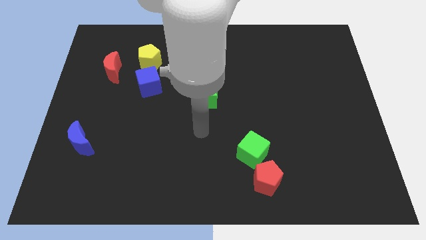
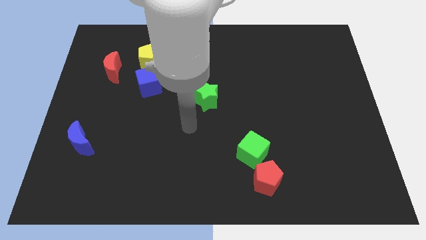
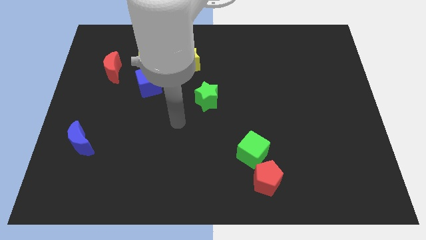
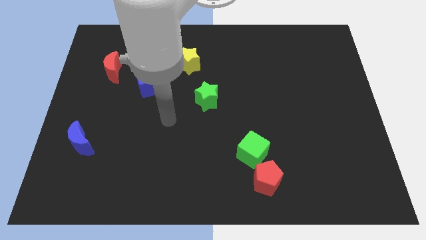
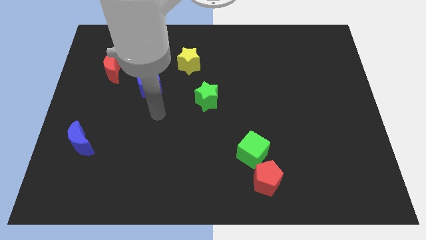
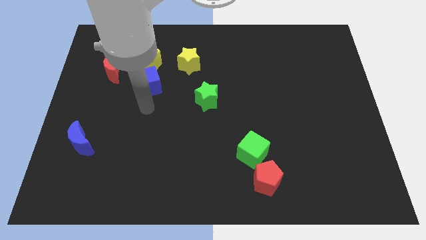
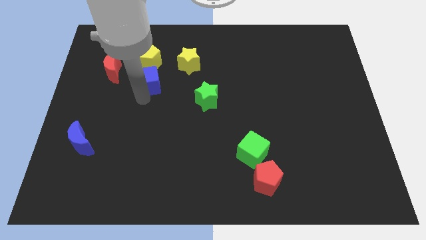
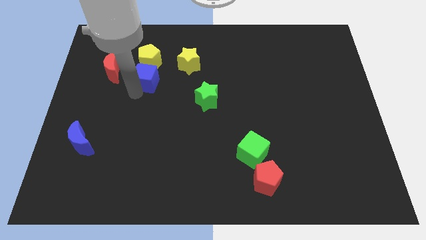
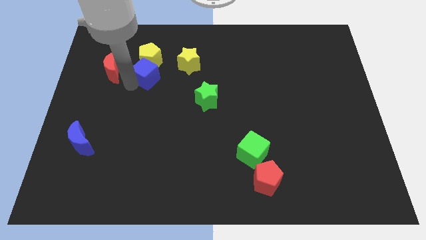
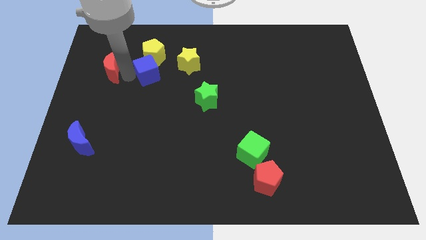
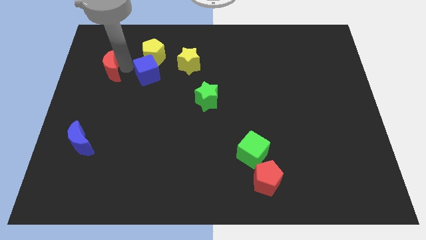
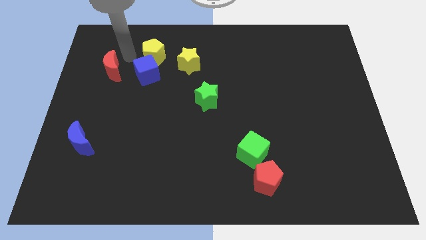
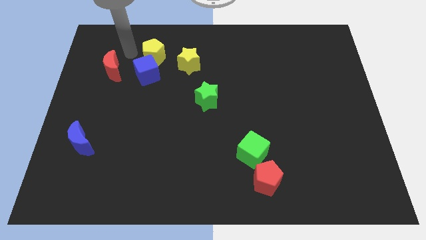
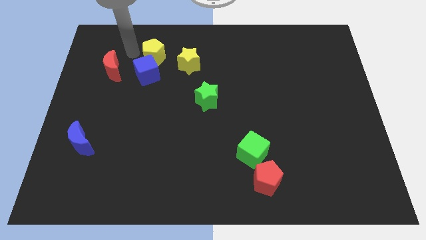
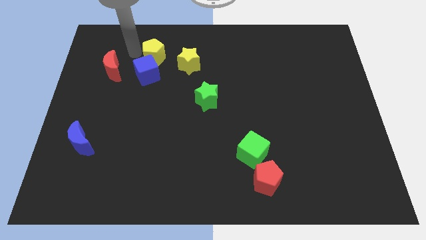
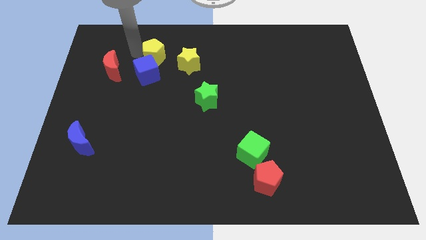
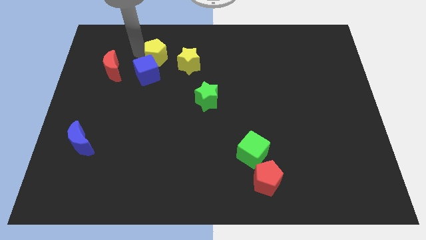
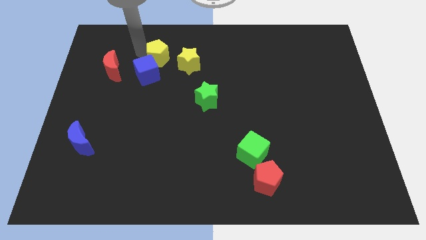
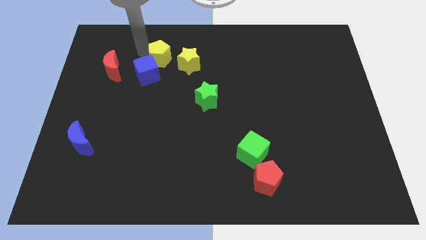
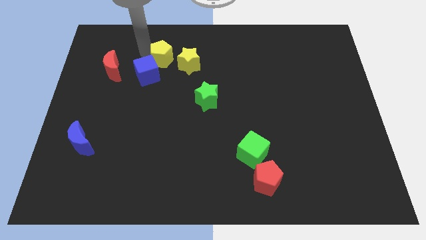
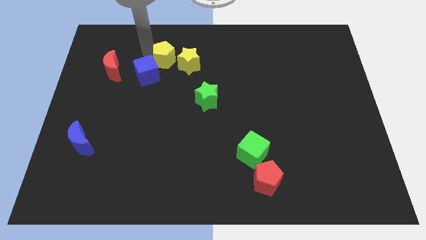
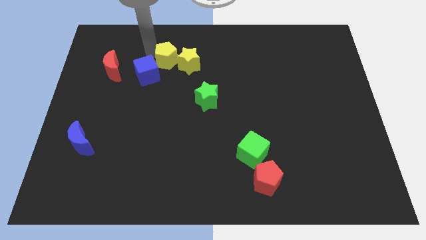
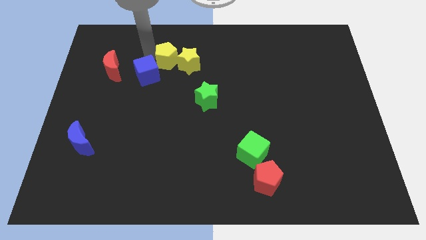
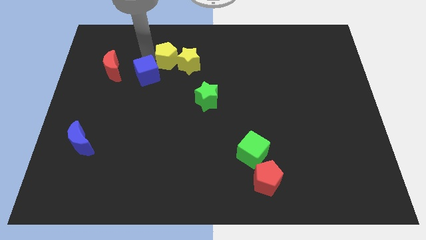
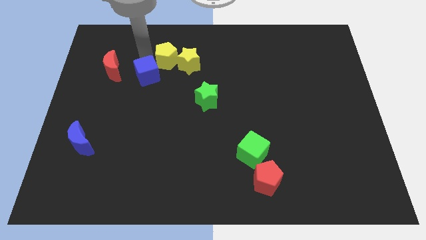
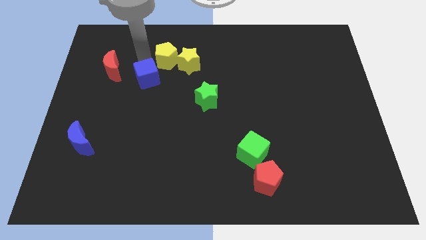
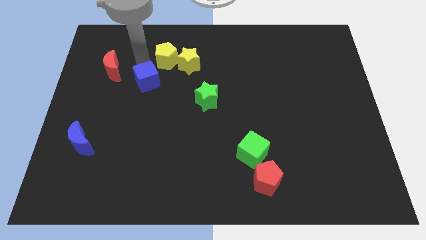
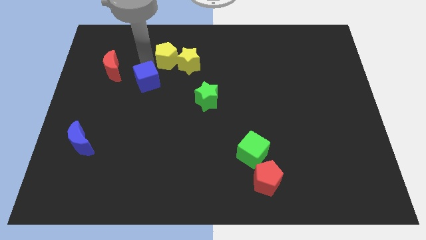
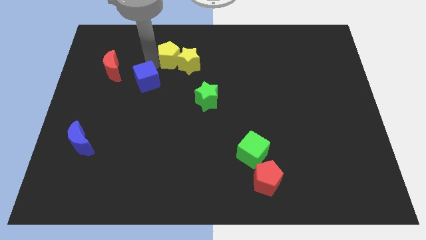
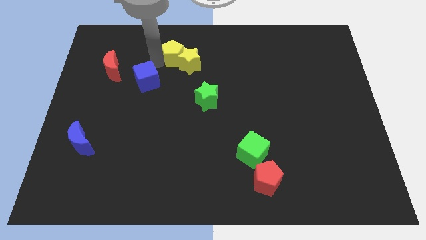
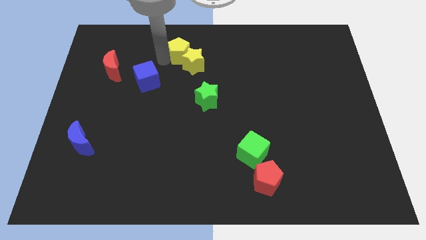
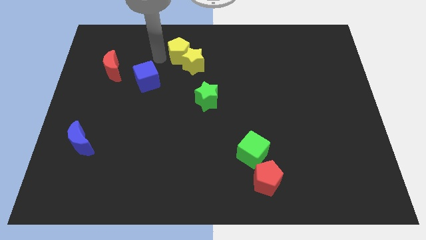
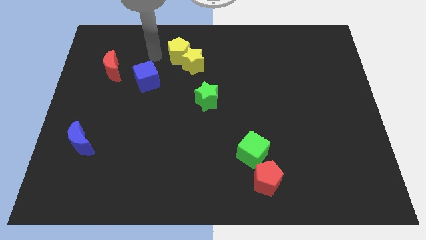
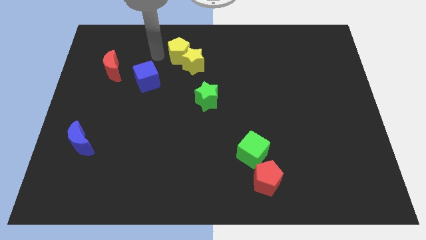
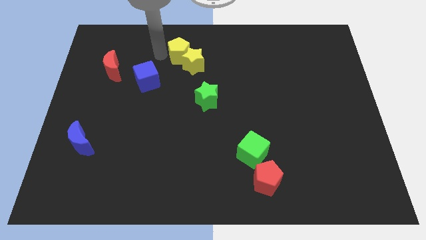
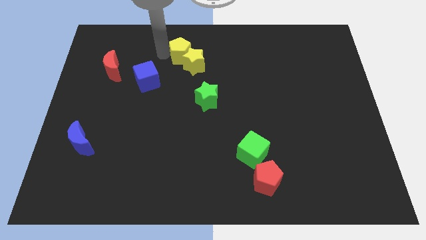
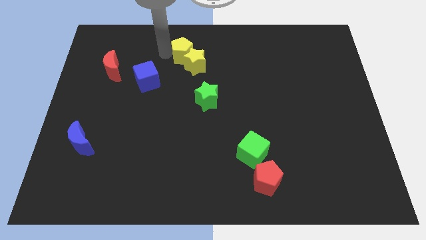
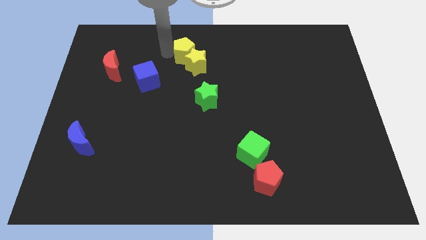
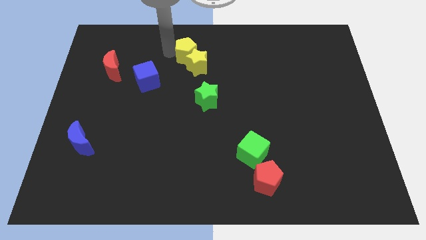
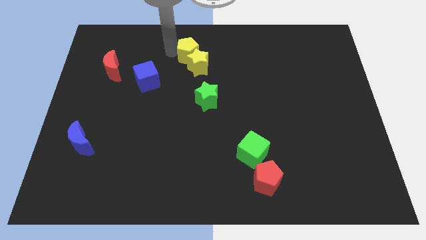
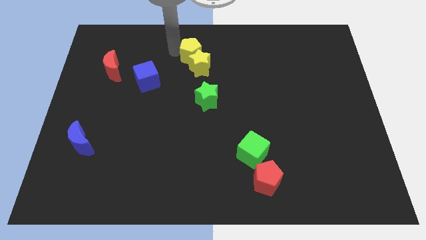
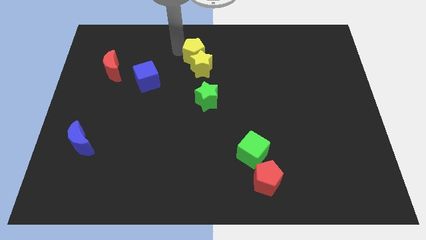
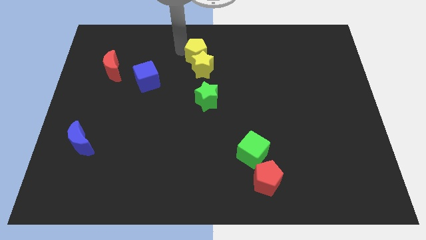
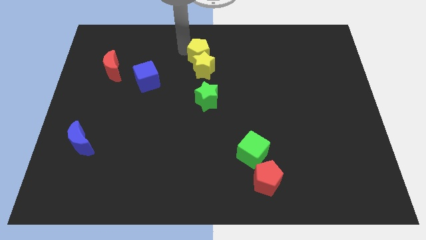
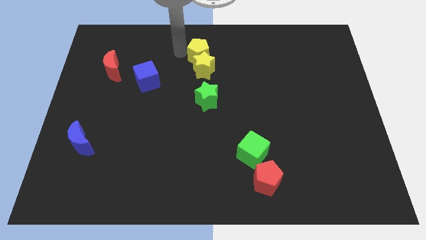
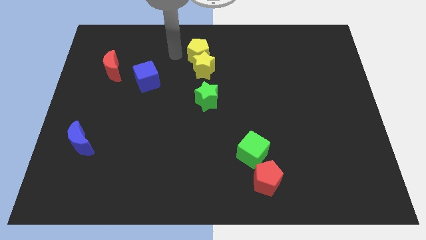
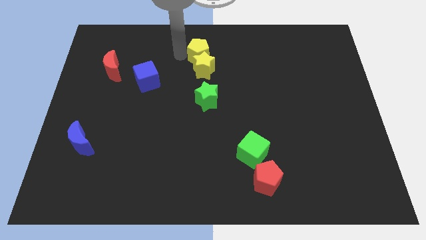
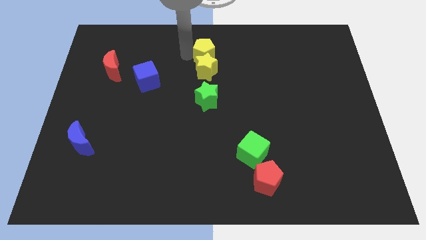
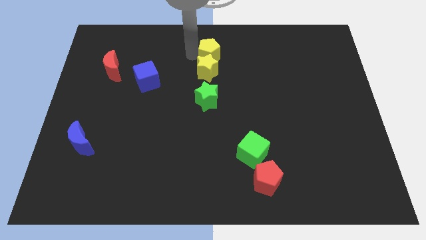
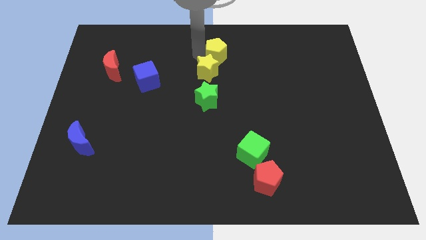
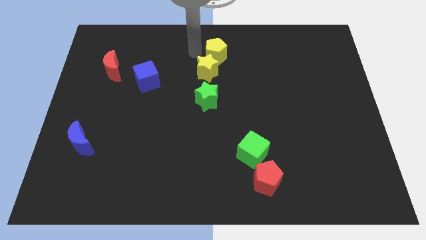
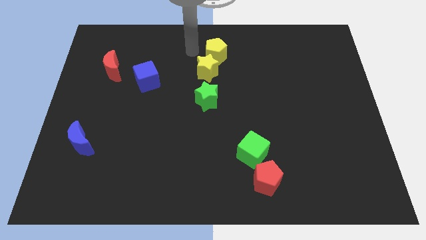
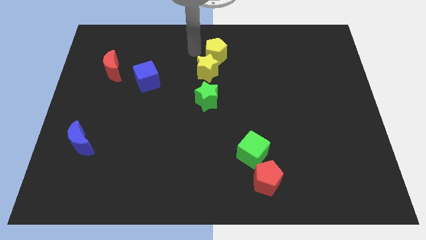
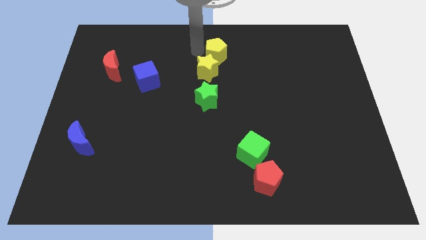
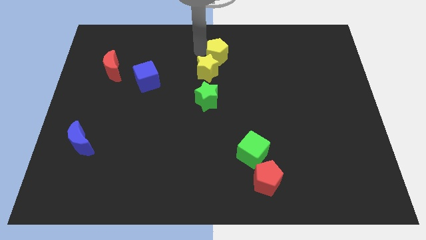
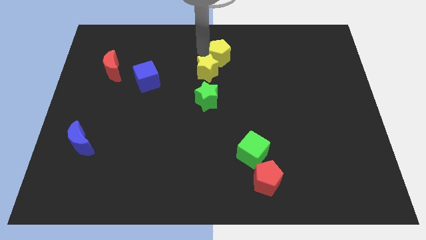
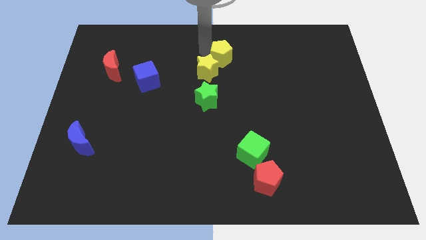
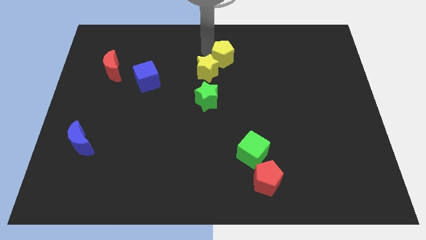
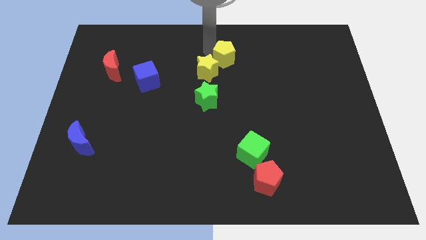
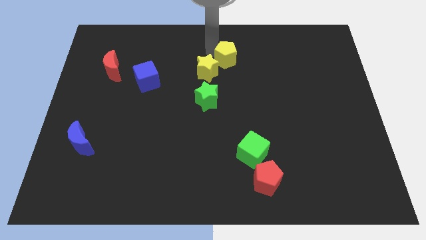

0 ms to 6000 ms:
slide the yellow pentagon to the right

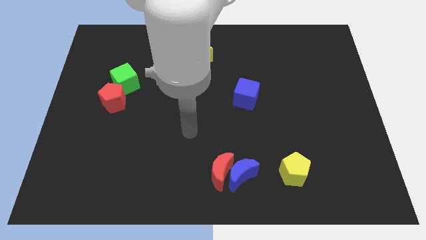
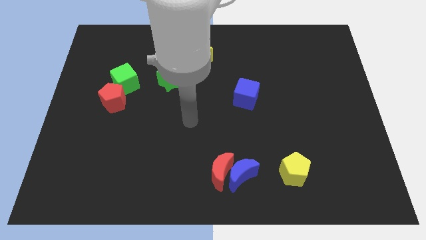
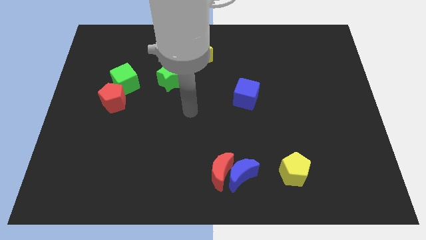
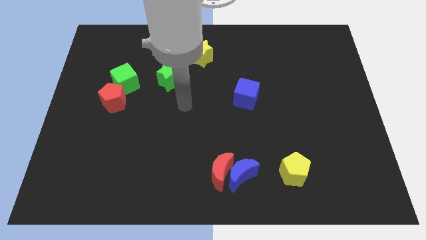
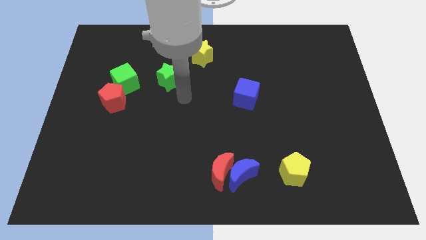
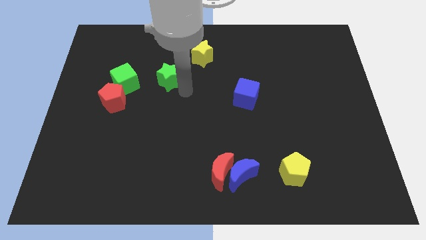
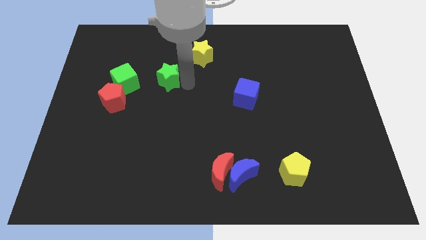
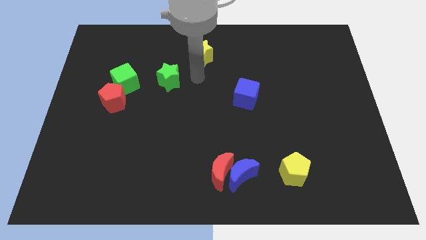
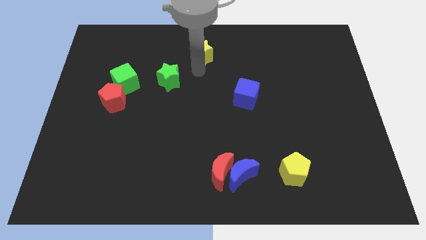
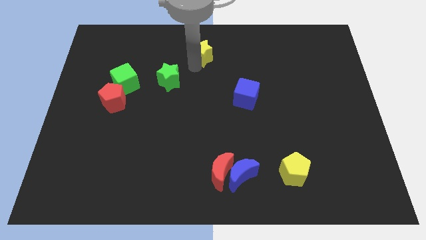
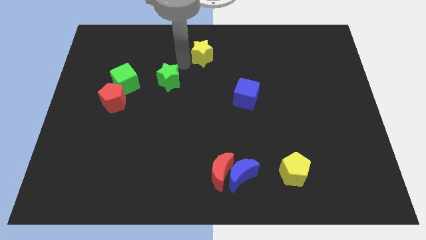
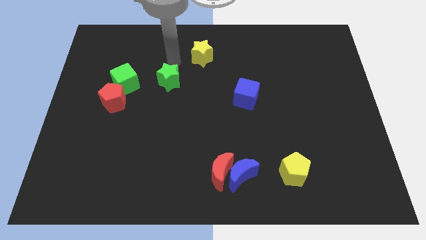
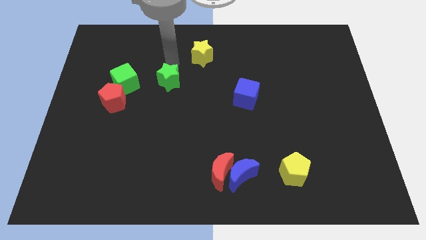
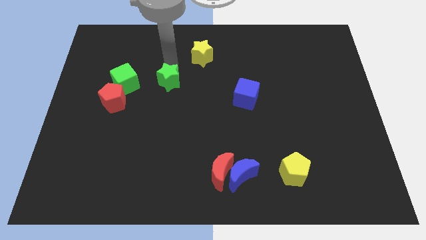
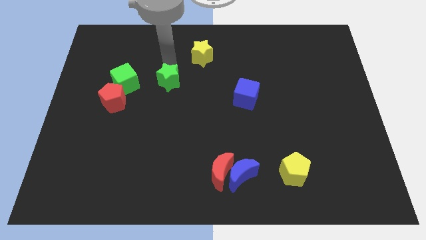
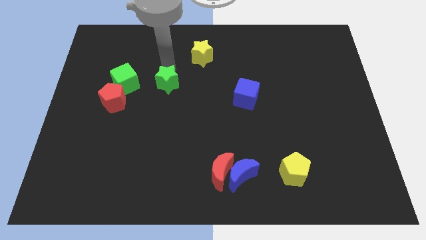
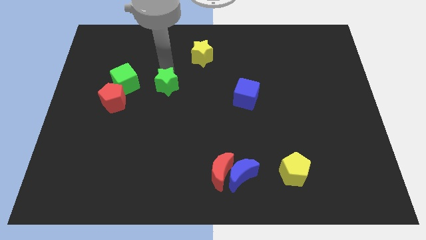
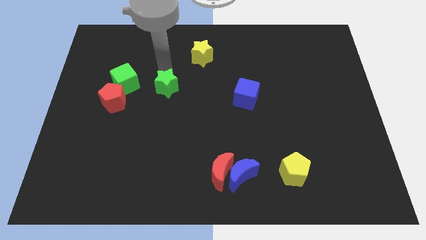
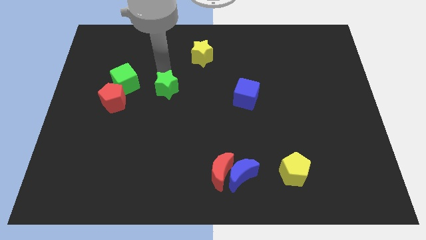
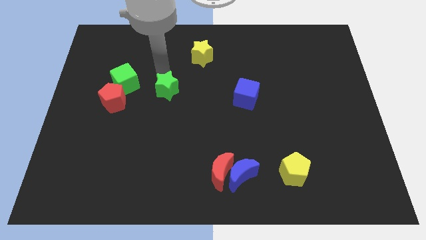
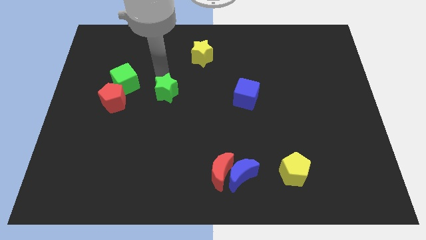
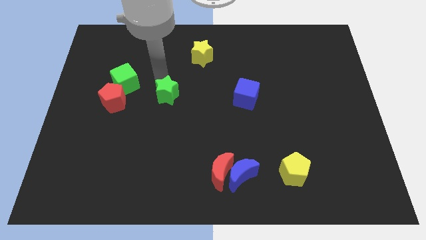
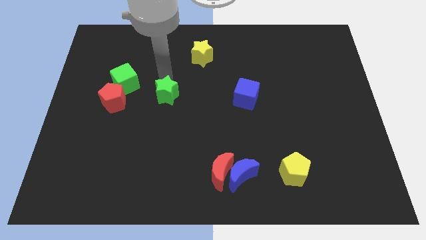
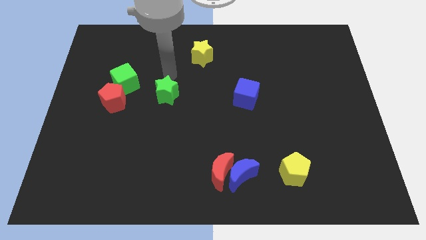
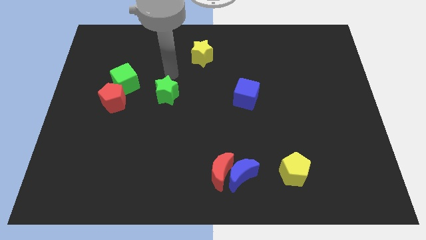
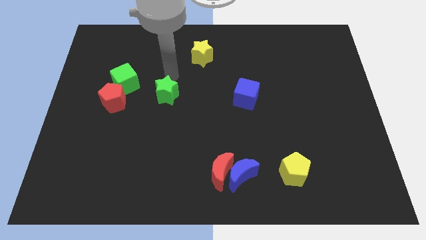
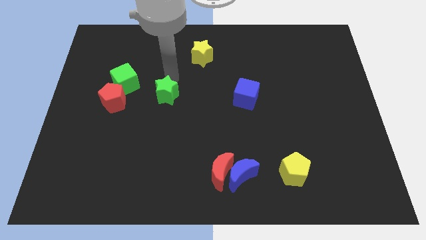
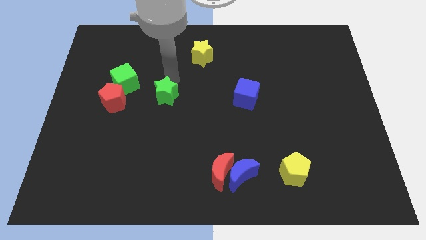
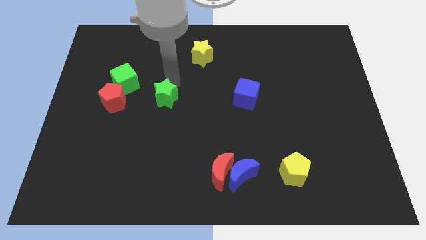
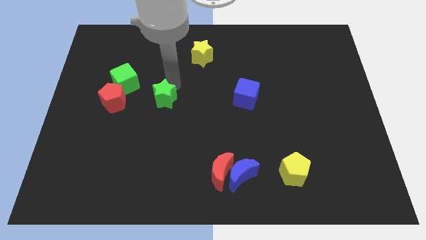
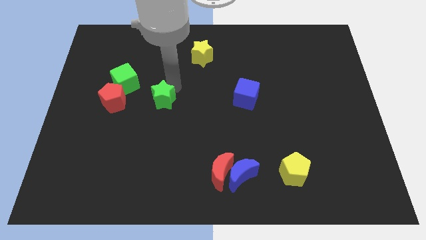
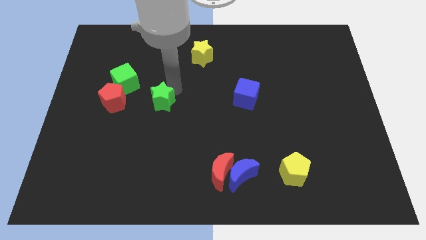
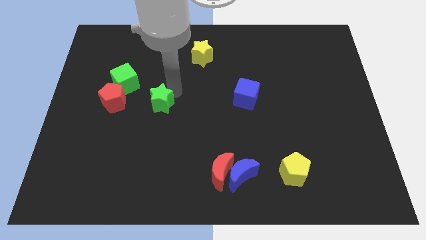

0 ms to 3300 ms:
slightly move the green star downwards
